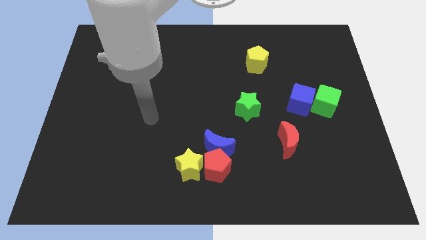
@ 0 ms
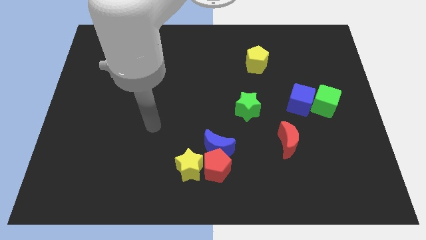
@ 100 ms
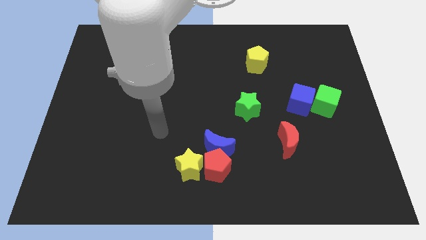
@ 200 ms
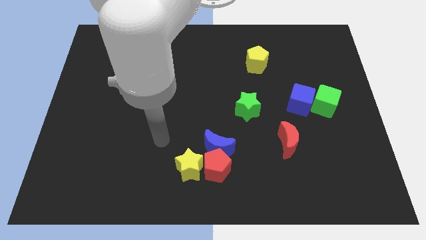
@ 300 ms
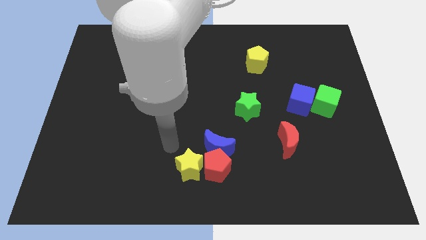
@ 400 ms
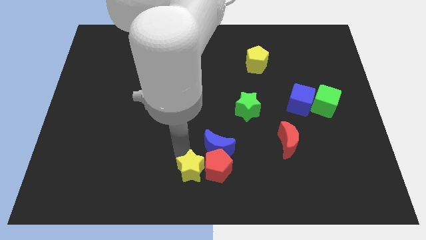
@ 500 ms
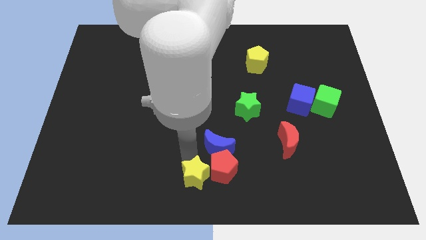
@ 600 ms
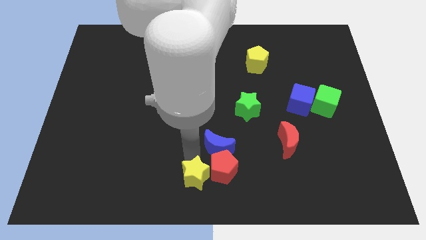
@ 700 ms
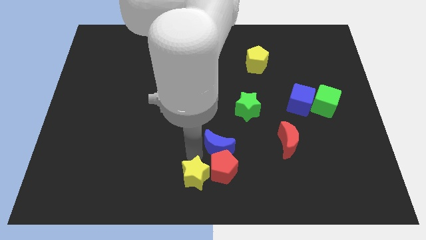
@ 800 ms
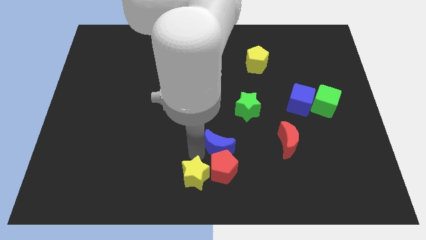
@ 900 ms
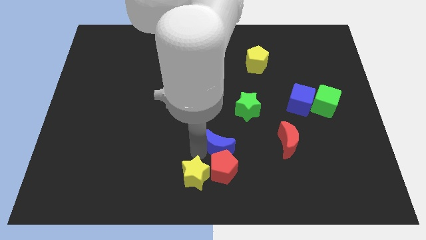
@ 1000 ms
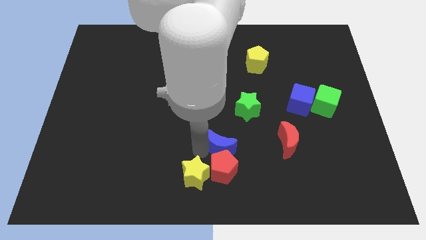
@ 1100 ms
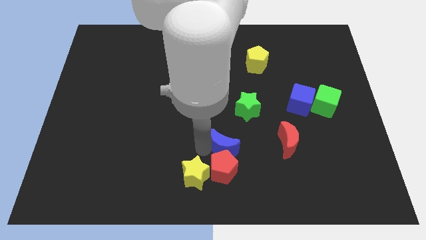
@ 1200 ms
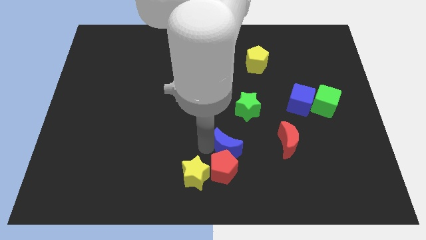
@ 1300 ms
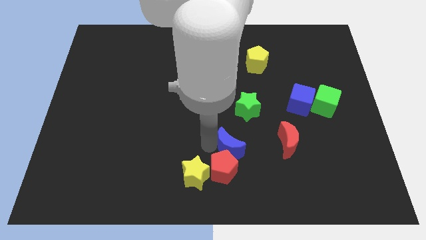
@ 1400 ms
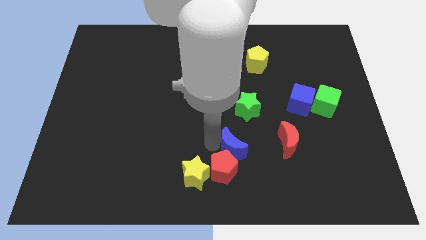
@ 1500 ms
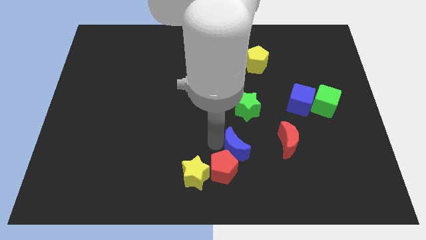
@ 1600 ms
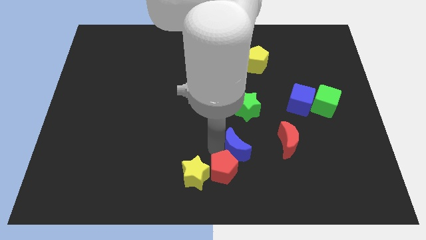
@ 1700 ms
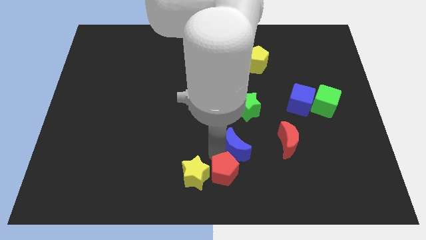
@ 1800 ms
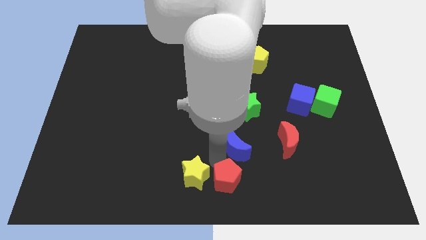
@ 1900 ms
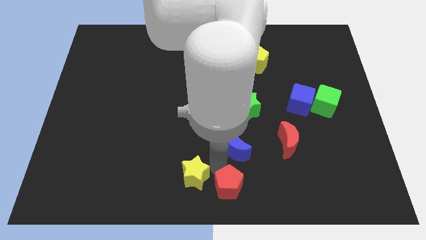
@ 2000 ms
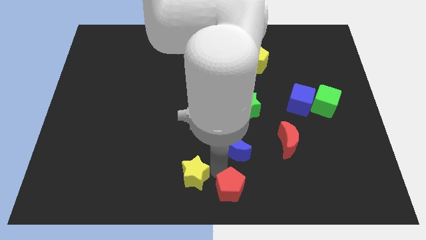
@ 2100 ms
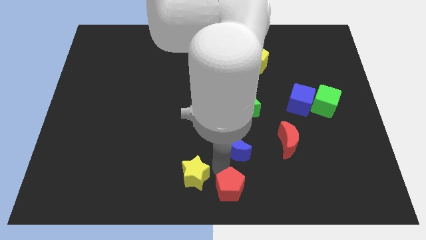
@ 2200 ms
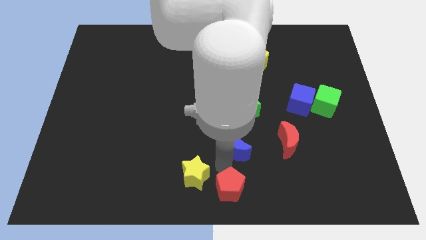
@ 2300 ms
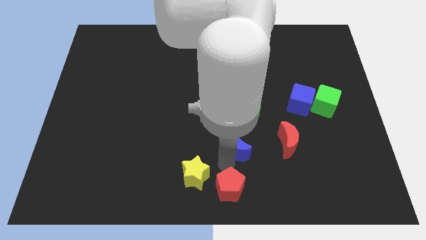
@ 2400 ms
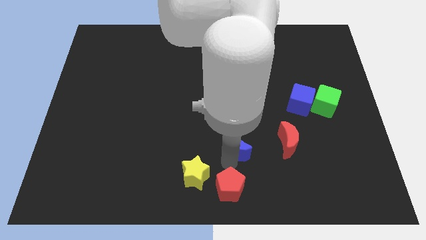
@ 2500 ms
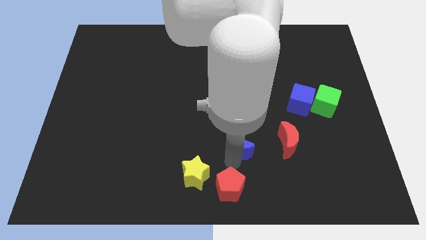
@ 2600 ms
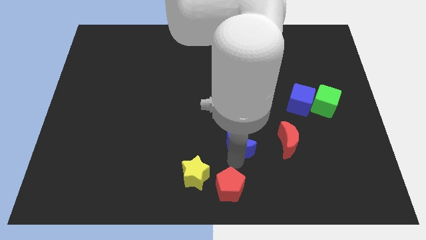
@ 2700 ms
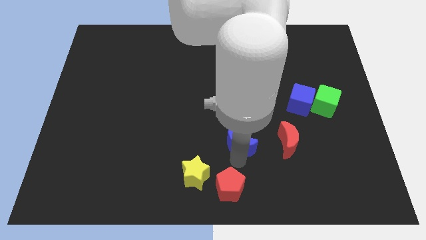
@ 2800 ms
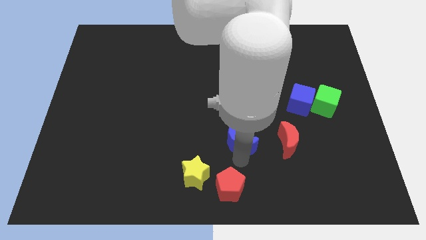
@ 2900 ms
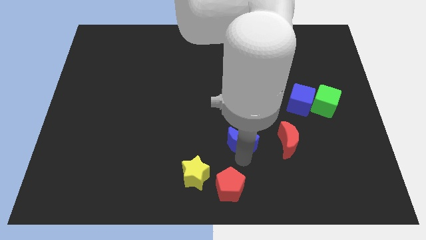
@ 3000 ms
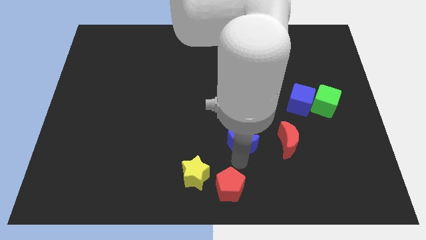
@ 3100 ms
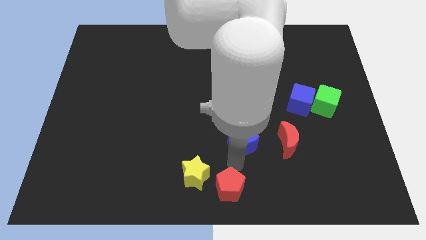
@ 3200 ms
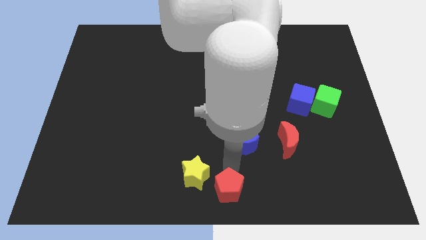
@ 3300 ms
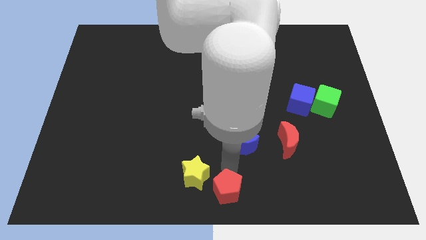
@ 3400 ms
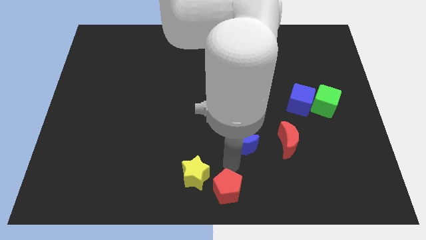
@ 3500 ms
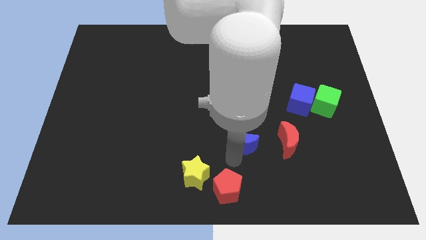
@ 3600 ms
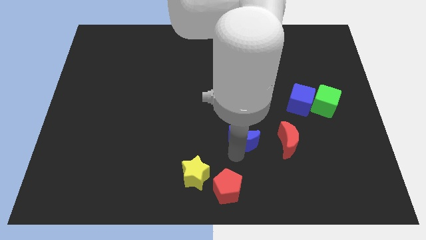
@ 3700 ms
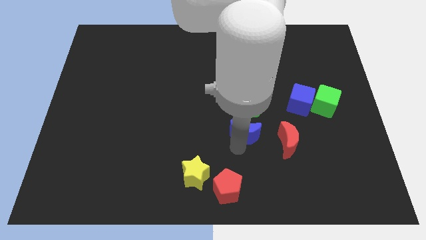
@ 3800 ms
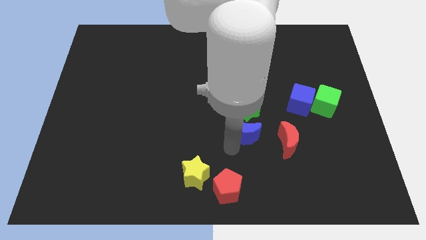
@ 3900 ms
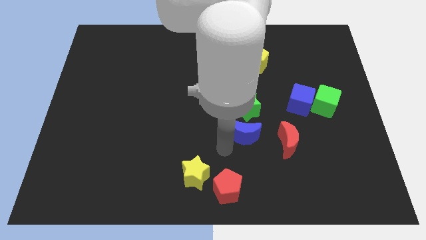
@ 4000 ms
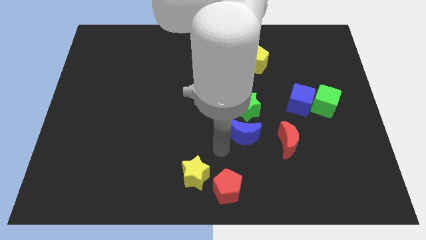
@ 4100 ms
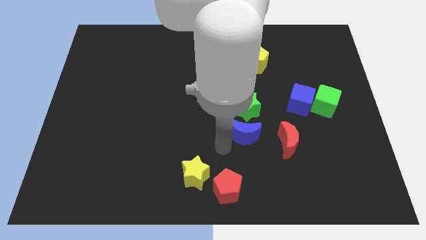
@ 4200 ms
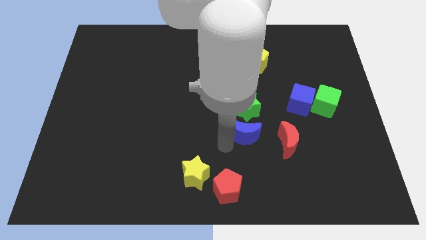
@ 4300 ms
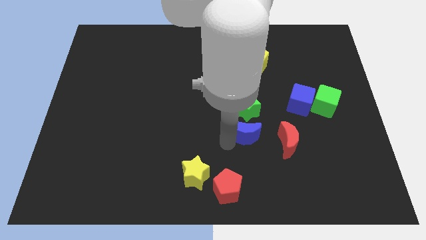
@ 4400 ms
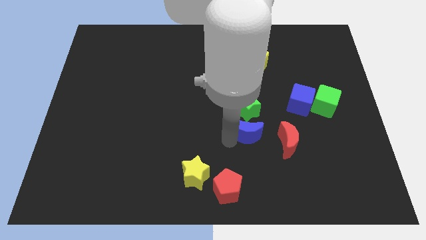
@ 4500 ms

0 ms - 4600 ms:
move the blue moon slightly diagonally upwards and right

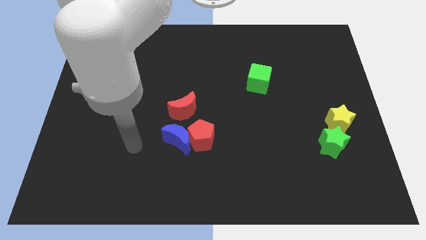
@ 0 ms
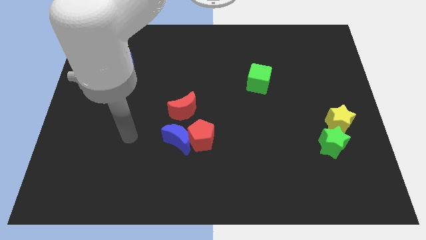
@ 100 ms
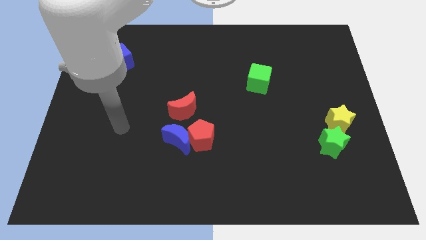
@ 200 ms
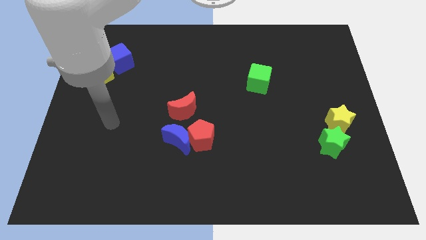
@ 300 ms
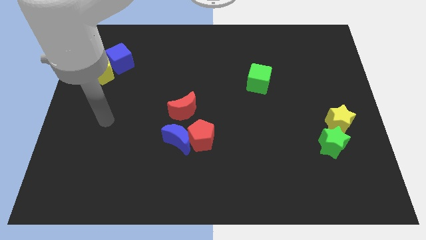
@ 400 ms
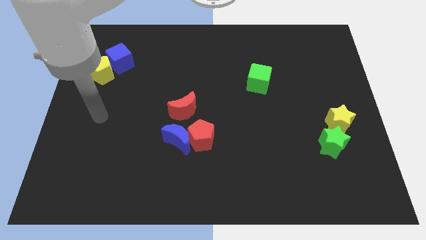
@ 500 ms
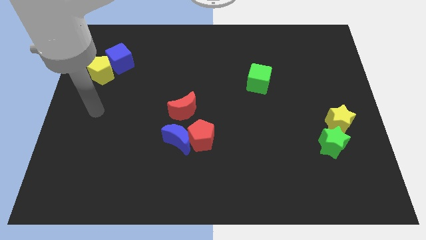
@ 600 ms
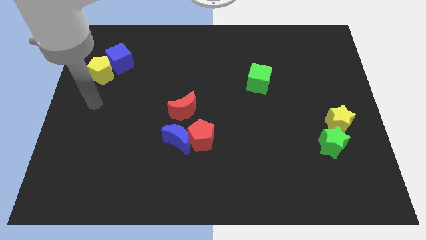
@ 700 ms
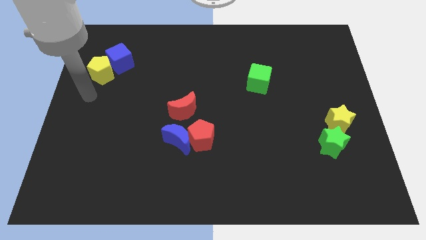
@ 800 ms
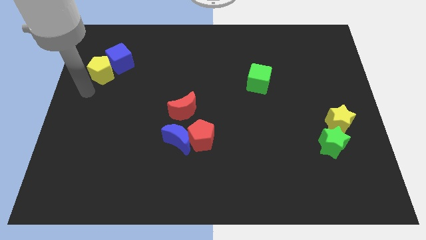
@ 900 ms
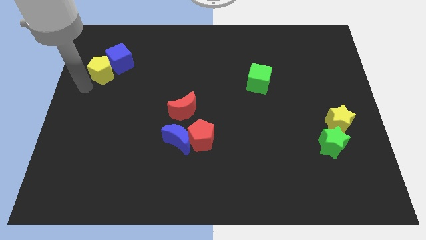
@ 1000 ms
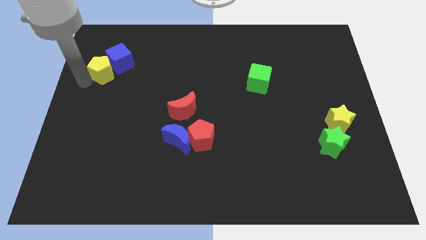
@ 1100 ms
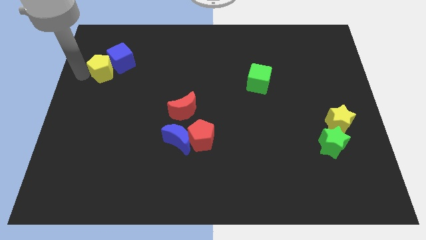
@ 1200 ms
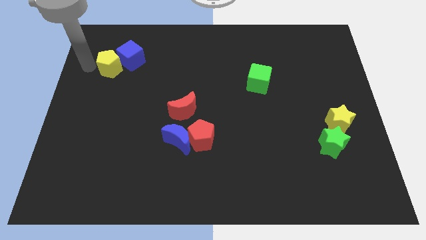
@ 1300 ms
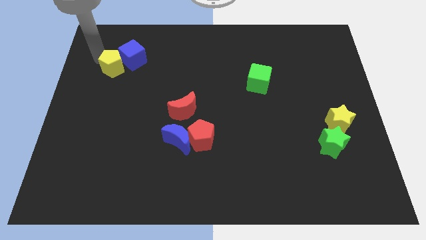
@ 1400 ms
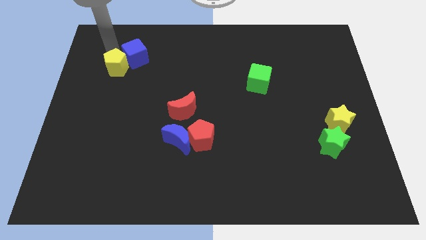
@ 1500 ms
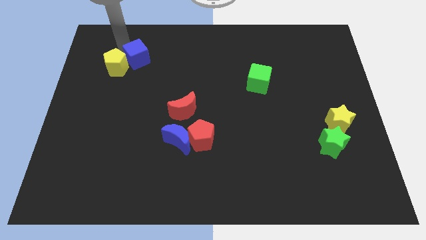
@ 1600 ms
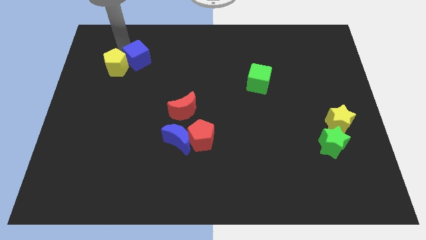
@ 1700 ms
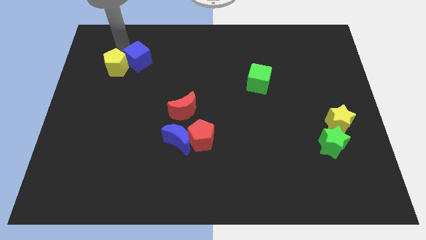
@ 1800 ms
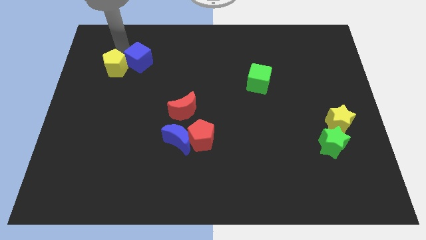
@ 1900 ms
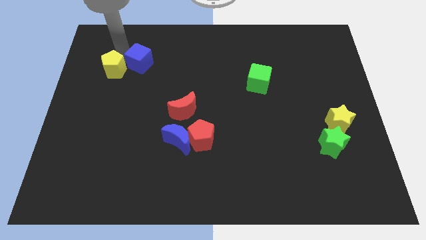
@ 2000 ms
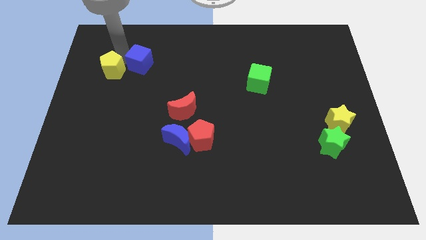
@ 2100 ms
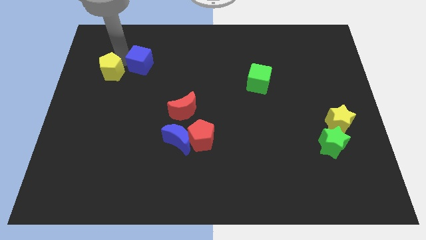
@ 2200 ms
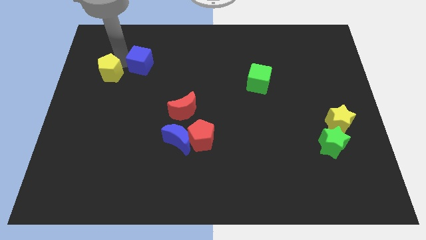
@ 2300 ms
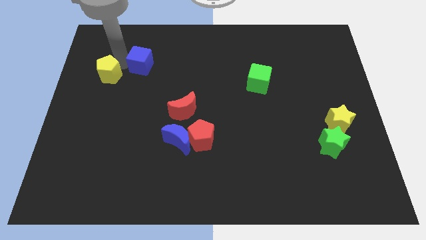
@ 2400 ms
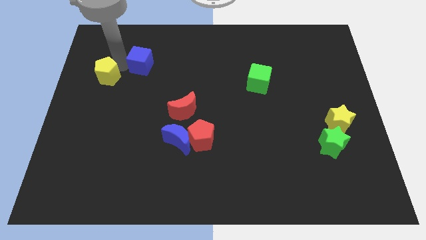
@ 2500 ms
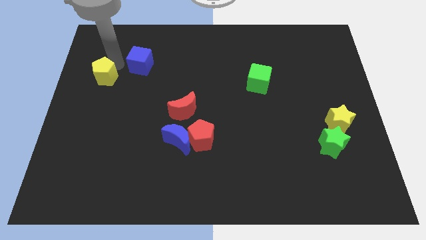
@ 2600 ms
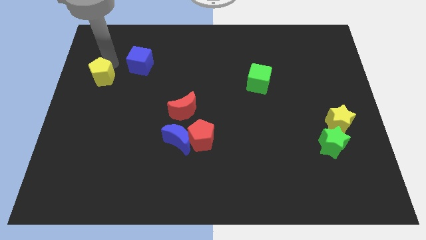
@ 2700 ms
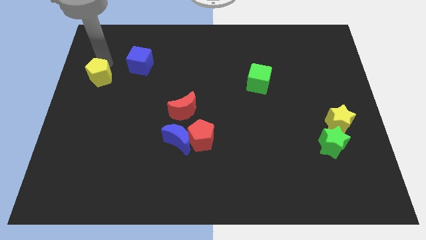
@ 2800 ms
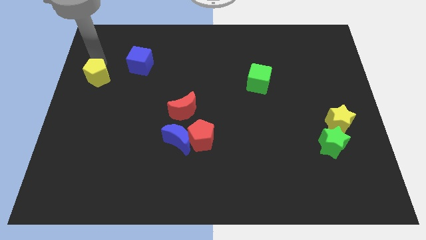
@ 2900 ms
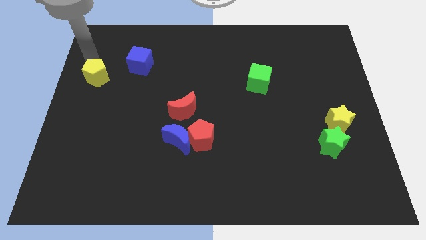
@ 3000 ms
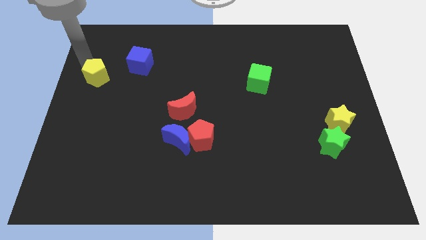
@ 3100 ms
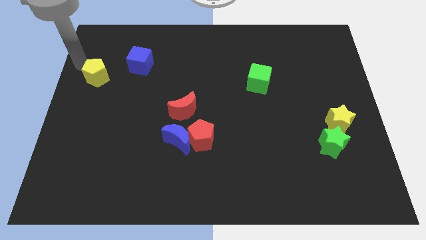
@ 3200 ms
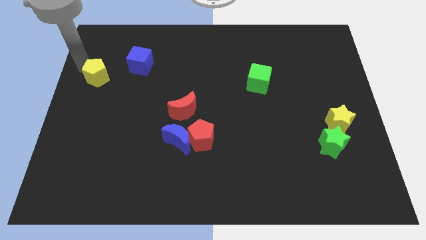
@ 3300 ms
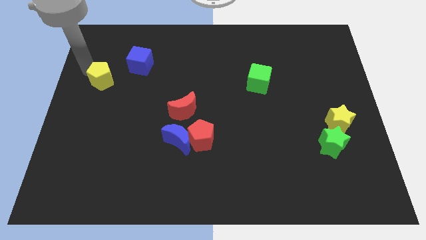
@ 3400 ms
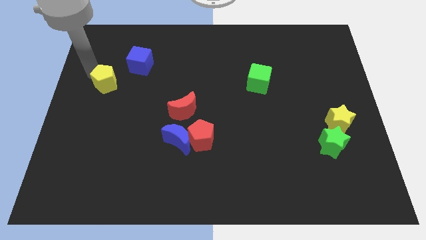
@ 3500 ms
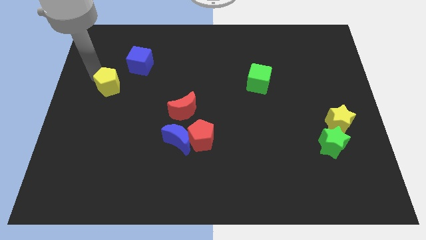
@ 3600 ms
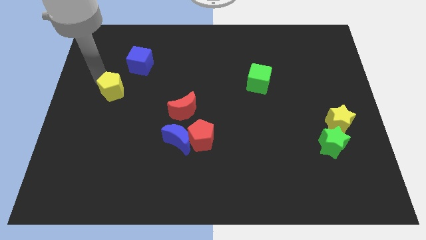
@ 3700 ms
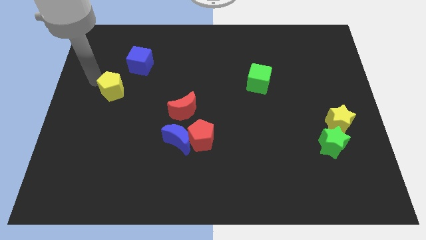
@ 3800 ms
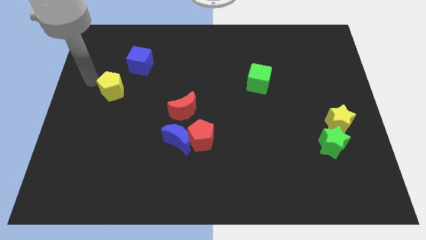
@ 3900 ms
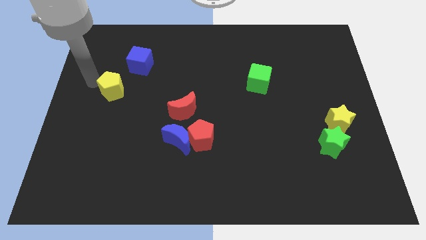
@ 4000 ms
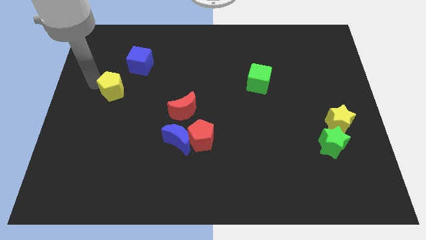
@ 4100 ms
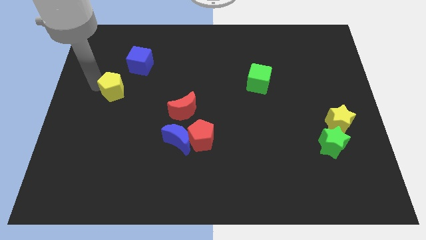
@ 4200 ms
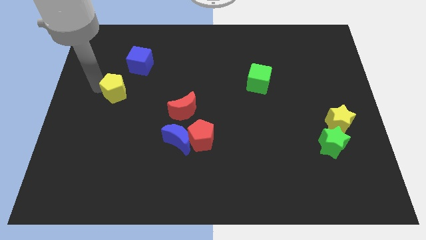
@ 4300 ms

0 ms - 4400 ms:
push the yellow pentagon slightly downwards and to the right diagonally
